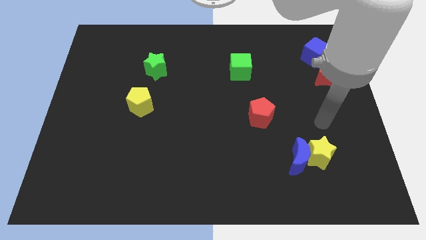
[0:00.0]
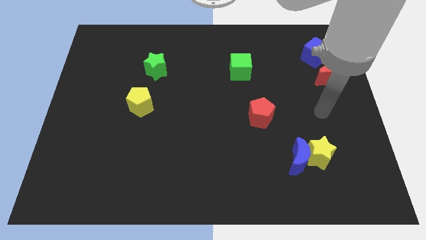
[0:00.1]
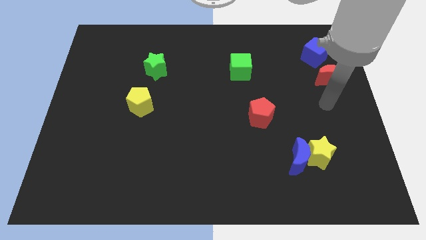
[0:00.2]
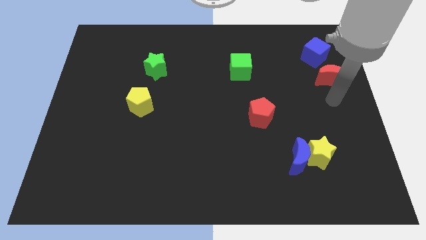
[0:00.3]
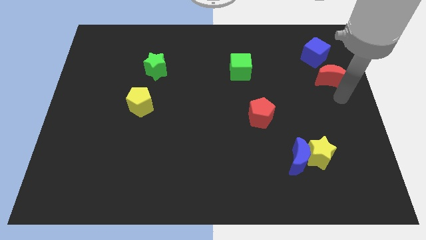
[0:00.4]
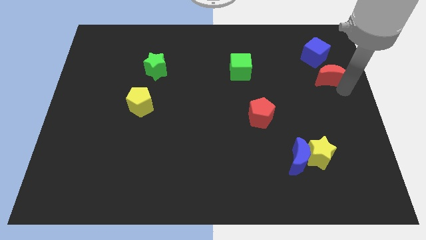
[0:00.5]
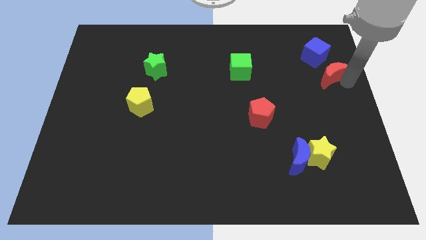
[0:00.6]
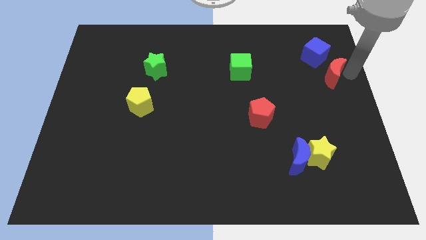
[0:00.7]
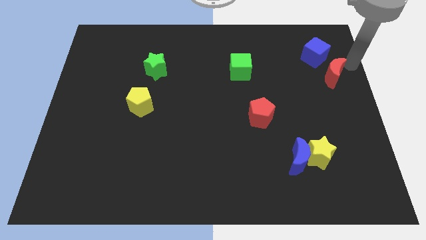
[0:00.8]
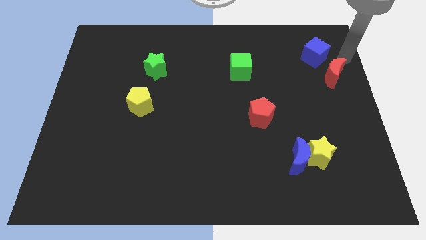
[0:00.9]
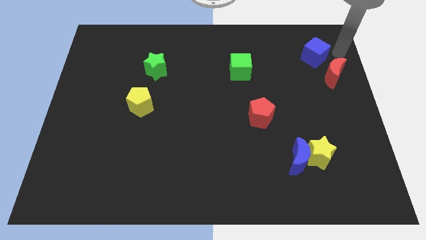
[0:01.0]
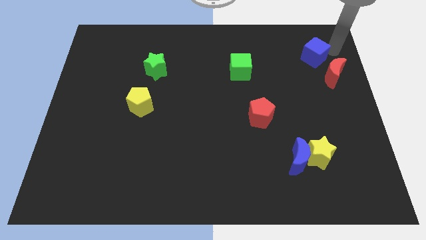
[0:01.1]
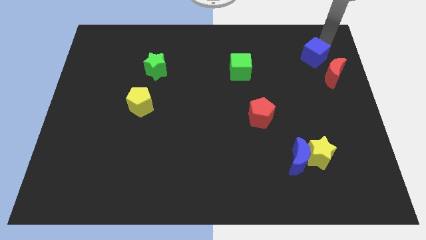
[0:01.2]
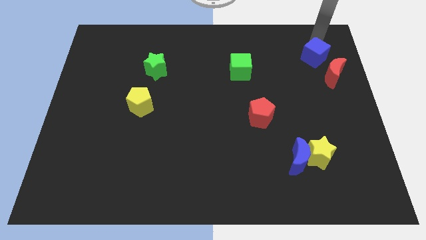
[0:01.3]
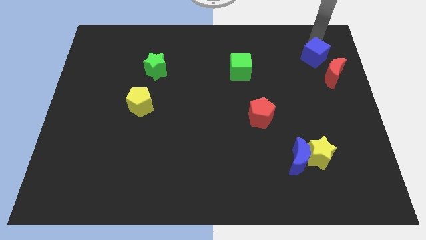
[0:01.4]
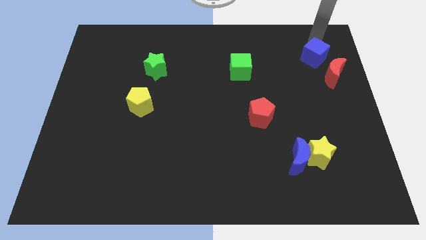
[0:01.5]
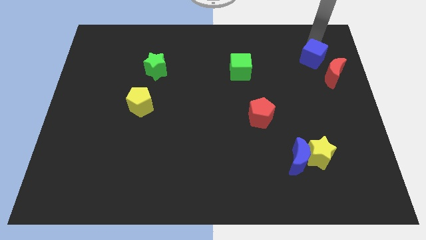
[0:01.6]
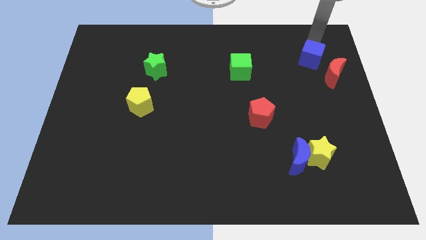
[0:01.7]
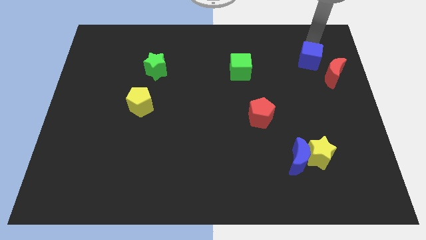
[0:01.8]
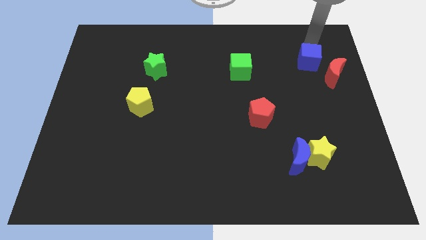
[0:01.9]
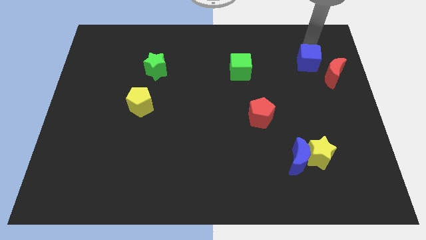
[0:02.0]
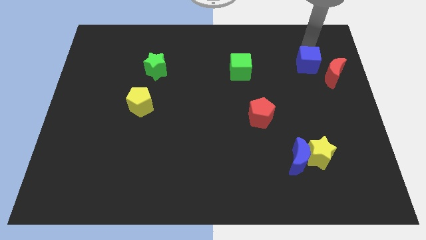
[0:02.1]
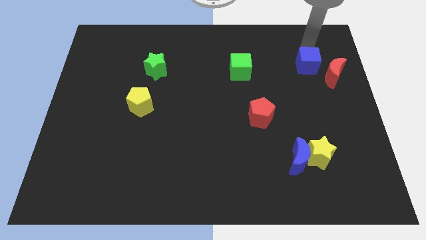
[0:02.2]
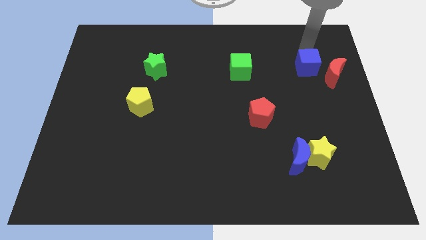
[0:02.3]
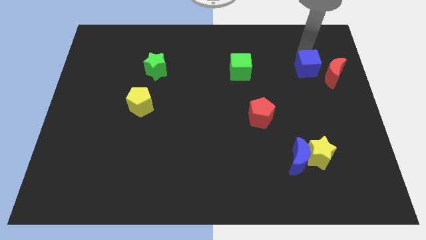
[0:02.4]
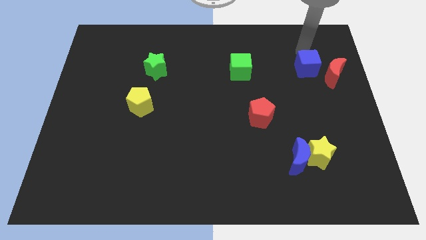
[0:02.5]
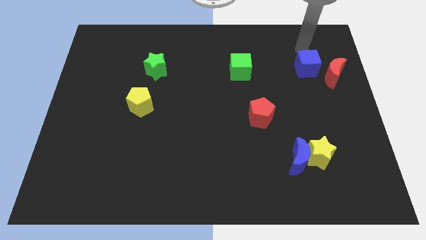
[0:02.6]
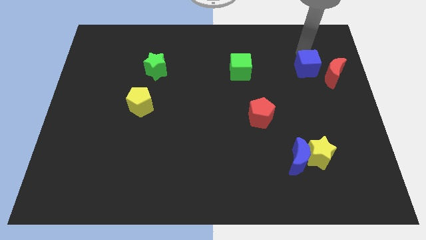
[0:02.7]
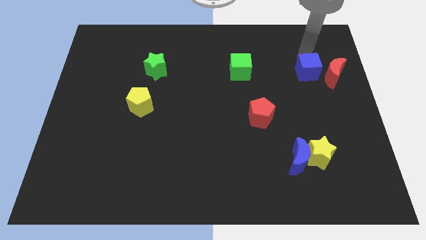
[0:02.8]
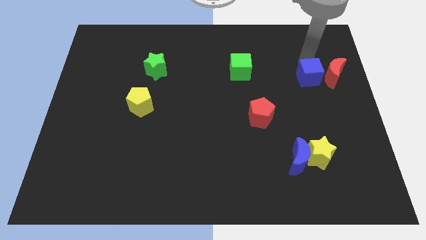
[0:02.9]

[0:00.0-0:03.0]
slide the blue cube slightly downwards

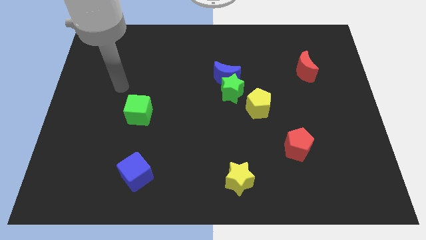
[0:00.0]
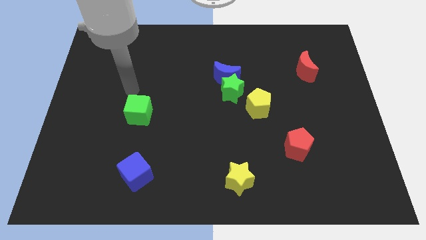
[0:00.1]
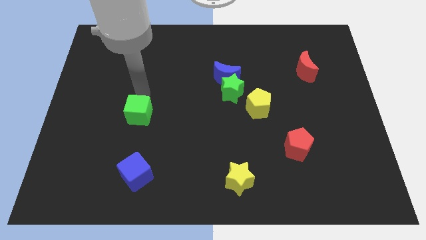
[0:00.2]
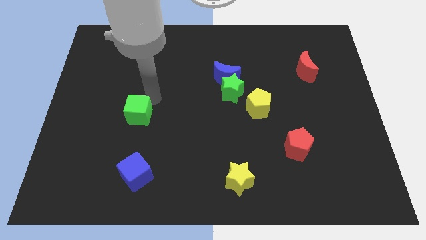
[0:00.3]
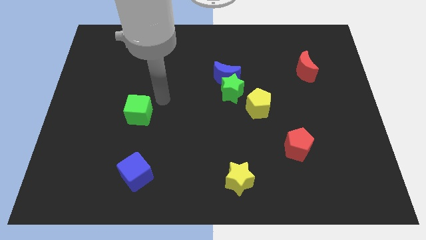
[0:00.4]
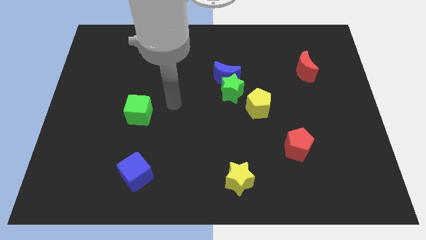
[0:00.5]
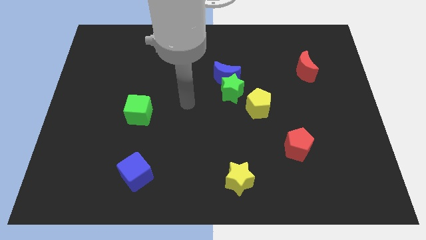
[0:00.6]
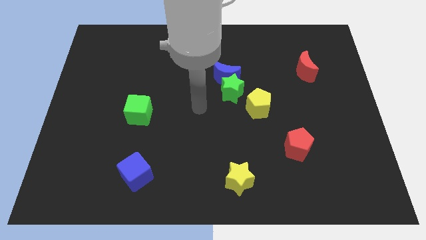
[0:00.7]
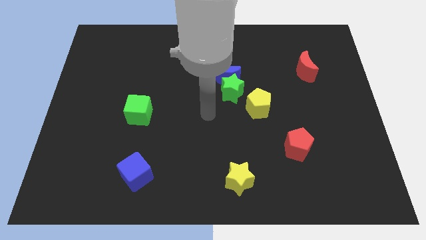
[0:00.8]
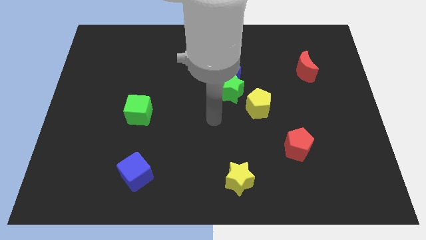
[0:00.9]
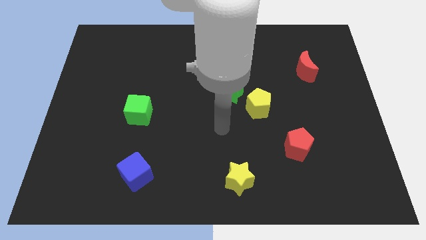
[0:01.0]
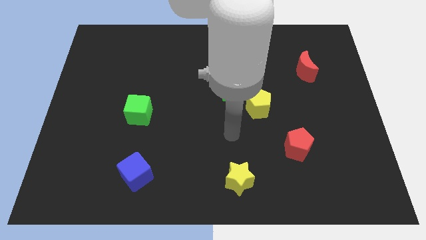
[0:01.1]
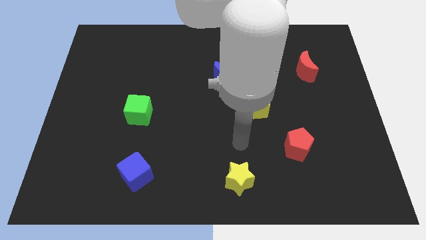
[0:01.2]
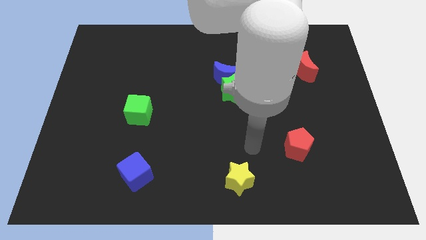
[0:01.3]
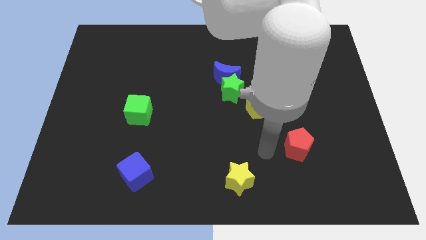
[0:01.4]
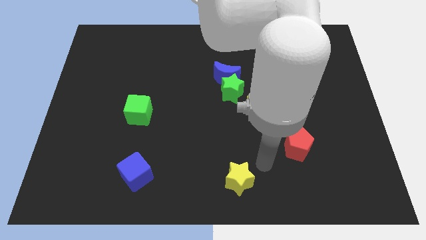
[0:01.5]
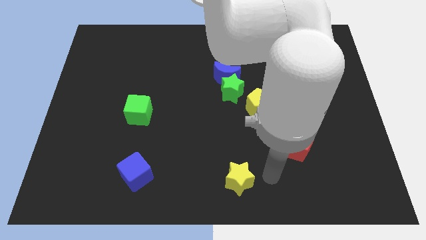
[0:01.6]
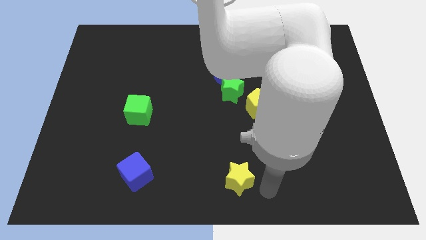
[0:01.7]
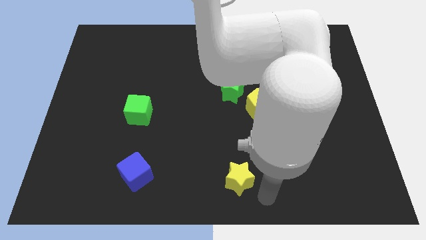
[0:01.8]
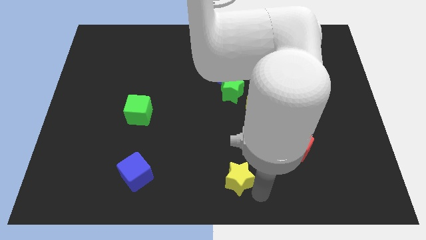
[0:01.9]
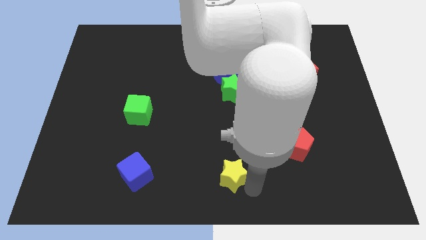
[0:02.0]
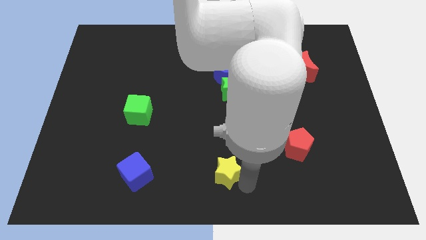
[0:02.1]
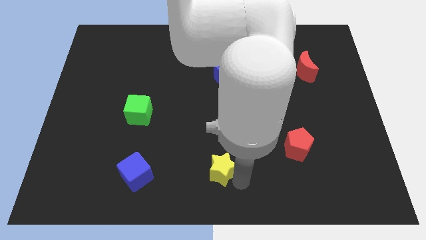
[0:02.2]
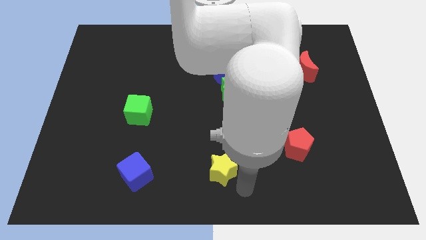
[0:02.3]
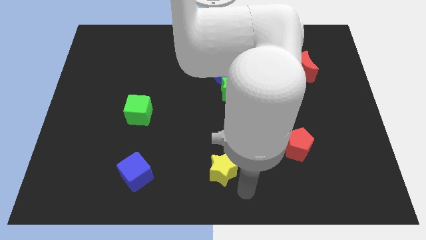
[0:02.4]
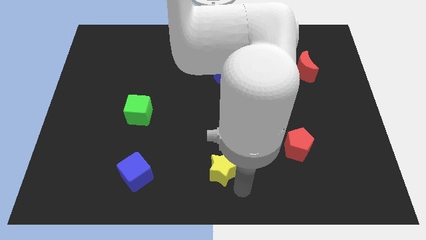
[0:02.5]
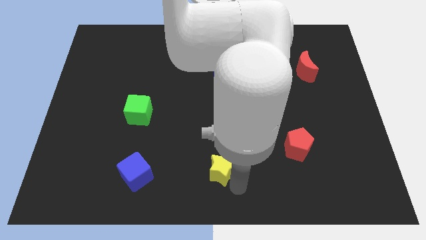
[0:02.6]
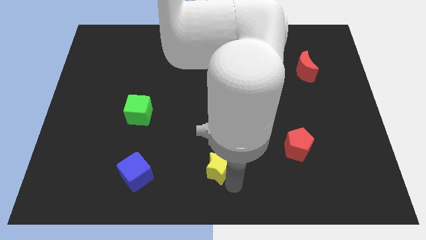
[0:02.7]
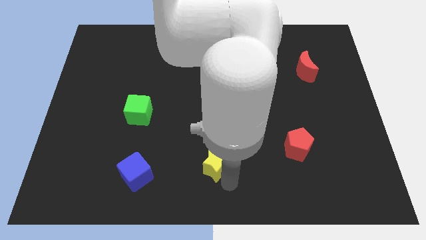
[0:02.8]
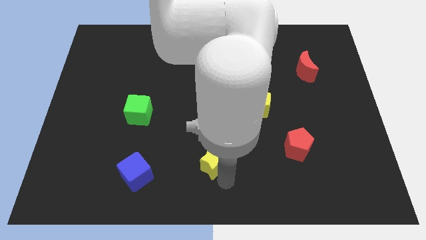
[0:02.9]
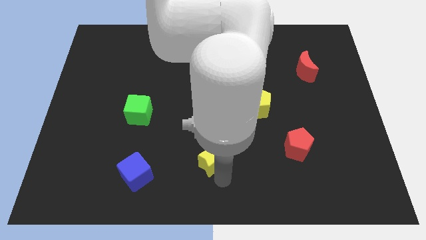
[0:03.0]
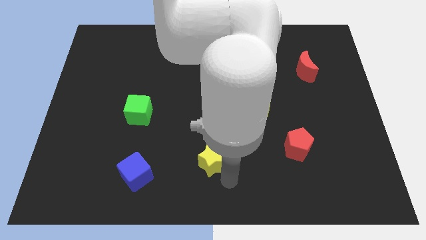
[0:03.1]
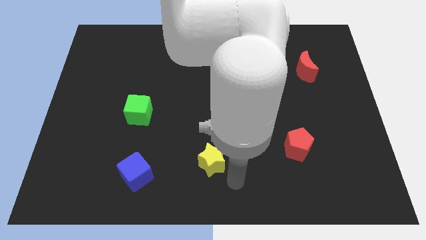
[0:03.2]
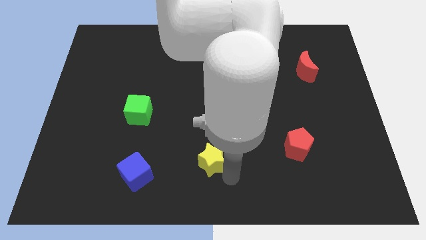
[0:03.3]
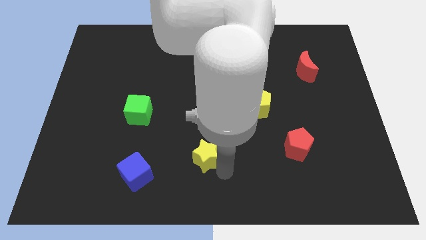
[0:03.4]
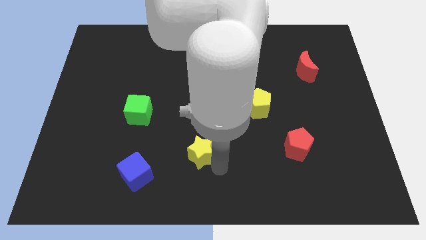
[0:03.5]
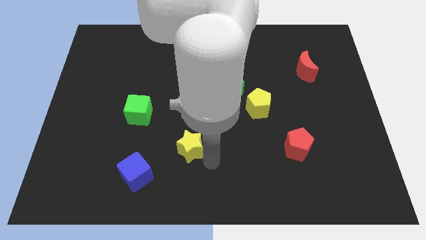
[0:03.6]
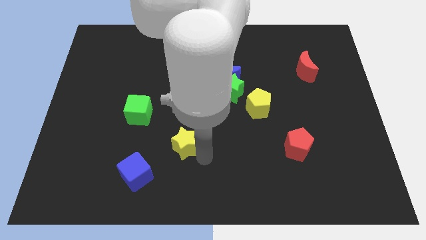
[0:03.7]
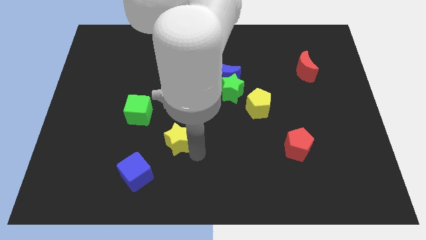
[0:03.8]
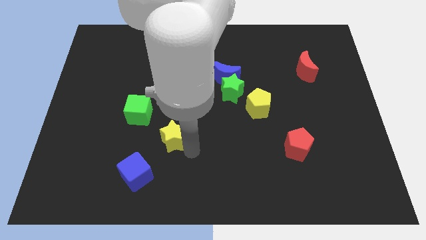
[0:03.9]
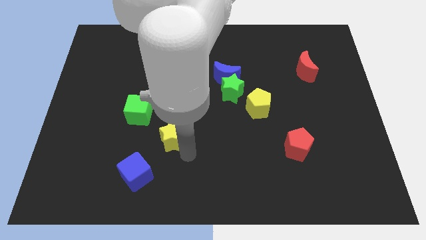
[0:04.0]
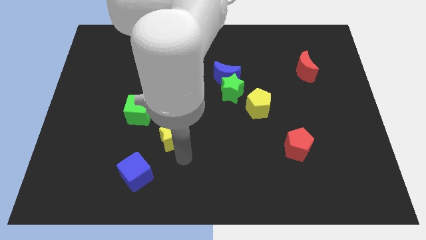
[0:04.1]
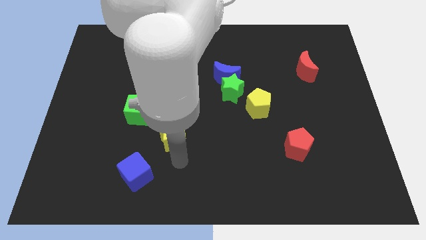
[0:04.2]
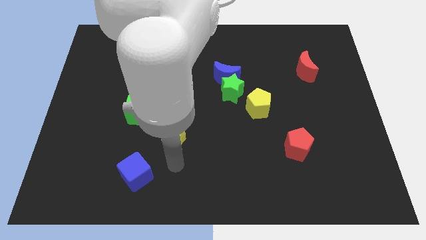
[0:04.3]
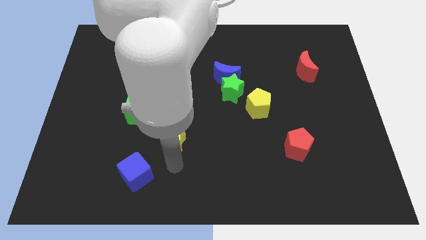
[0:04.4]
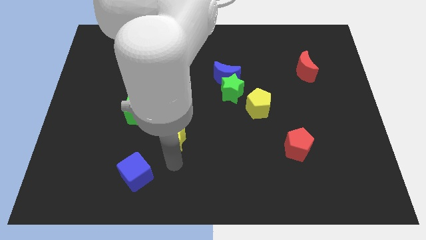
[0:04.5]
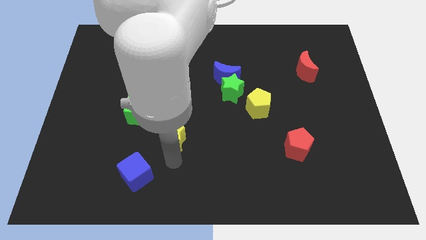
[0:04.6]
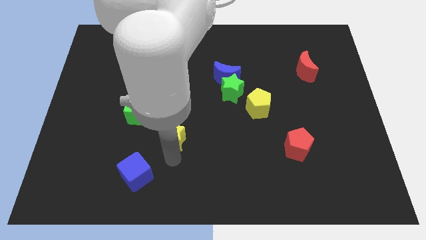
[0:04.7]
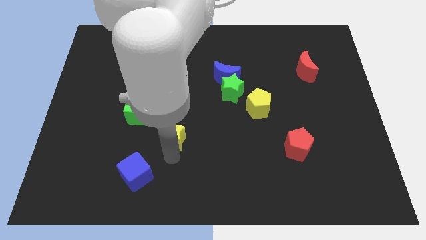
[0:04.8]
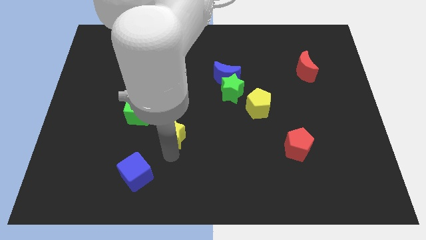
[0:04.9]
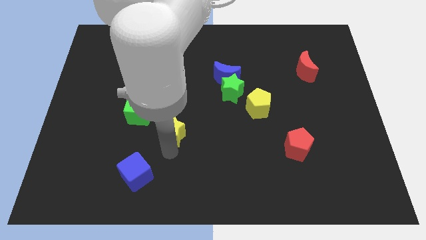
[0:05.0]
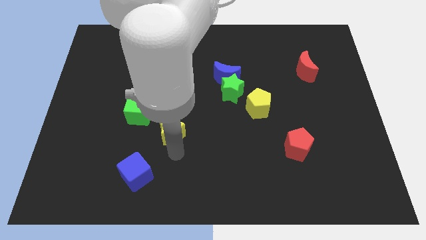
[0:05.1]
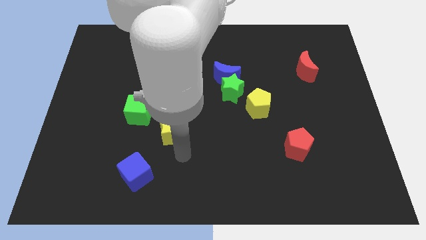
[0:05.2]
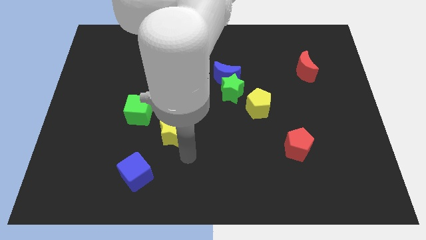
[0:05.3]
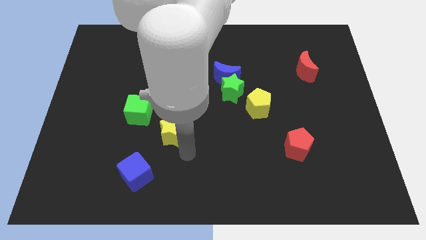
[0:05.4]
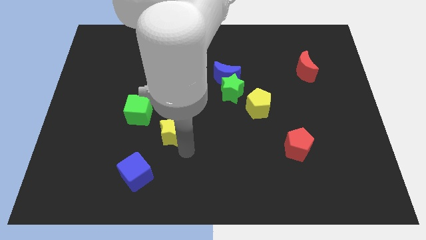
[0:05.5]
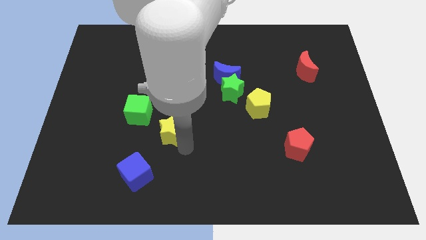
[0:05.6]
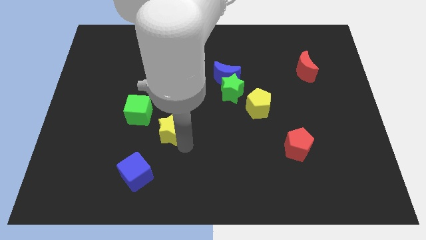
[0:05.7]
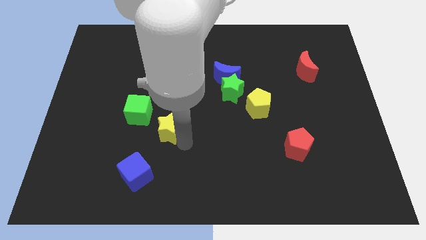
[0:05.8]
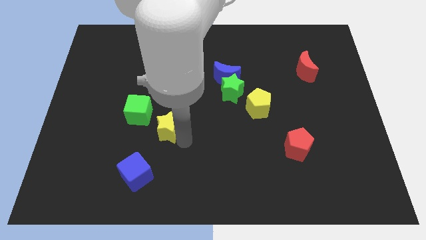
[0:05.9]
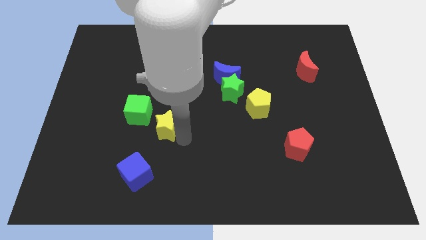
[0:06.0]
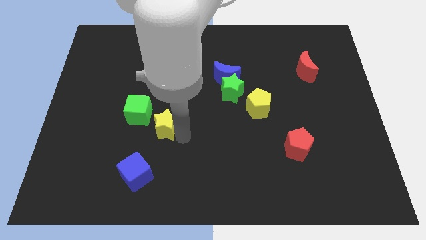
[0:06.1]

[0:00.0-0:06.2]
slide the yellow star up and to the left
